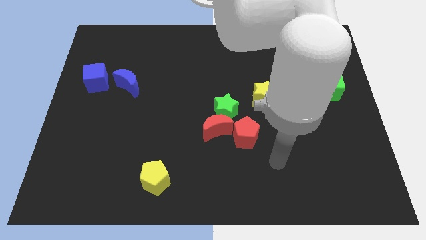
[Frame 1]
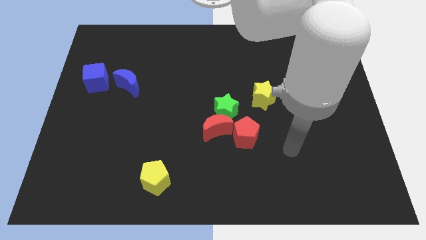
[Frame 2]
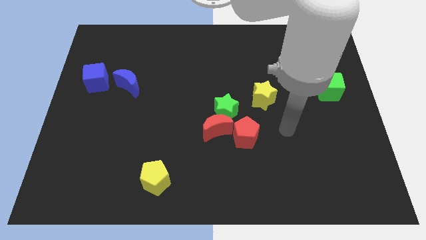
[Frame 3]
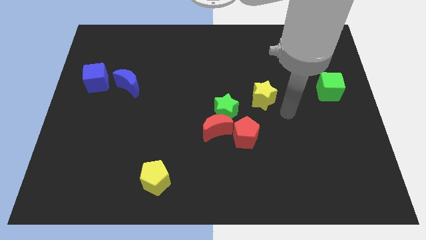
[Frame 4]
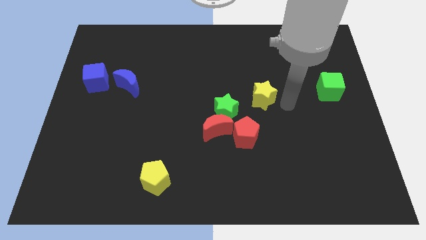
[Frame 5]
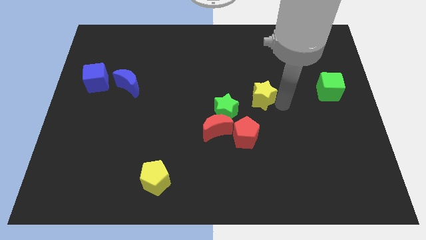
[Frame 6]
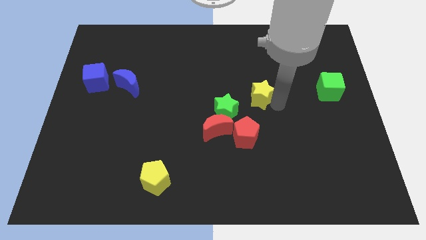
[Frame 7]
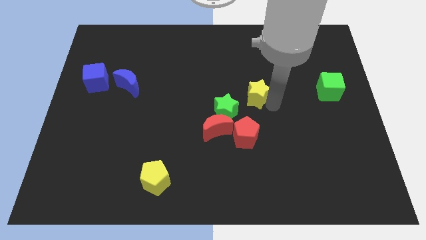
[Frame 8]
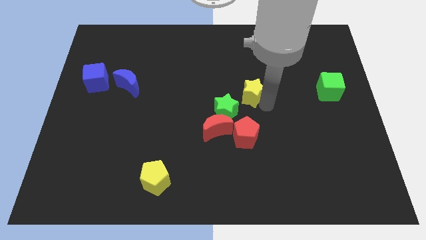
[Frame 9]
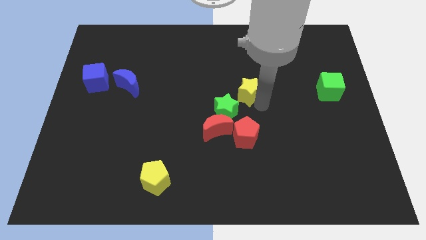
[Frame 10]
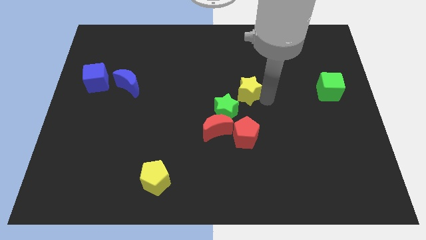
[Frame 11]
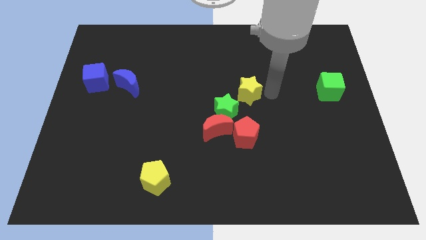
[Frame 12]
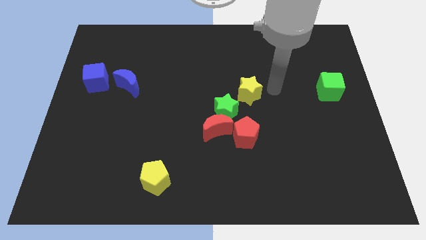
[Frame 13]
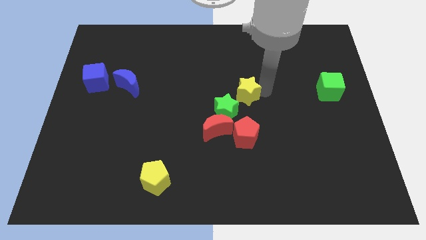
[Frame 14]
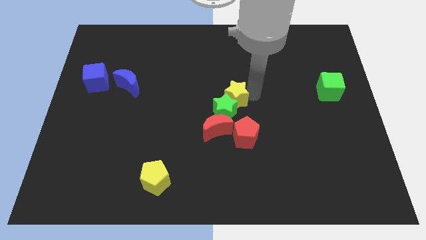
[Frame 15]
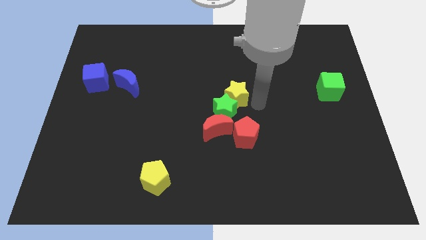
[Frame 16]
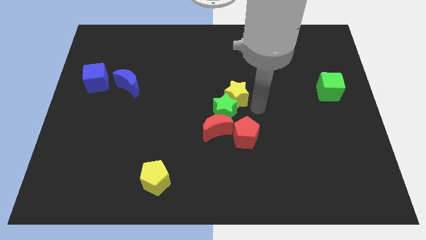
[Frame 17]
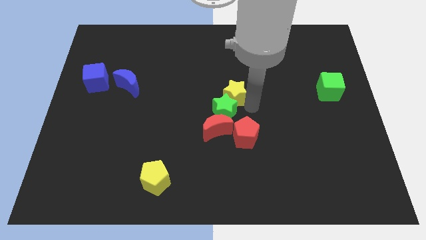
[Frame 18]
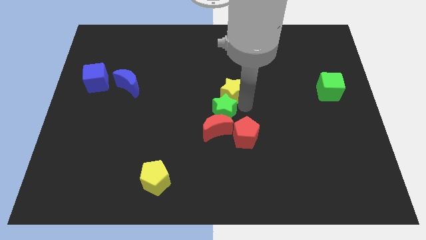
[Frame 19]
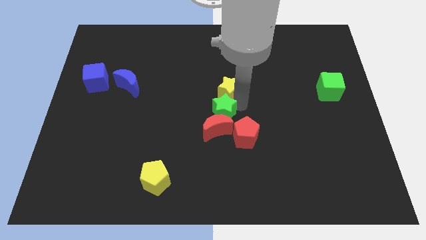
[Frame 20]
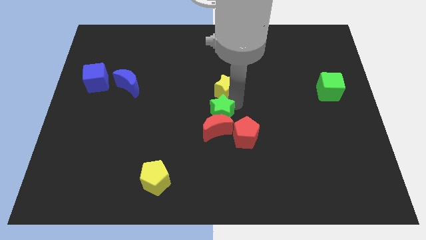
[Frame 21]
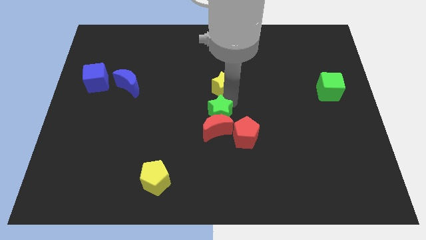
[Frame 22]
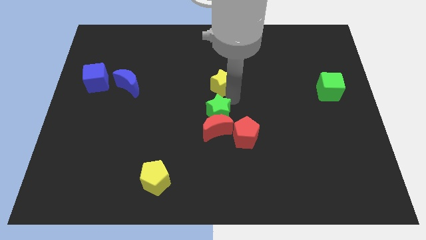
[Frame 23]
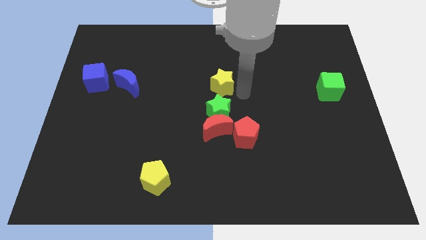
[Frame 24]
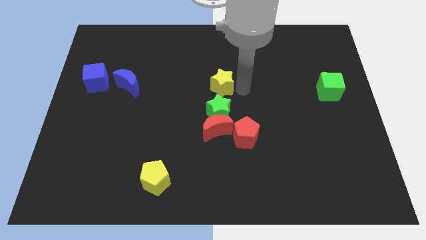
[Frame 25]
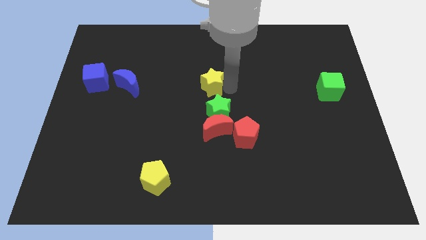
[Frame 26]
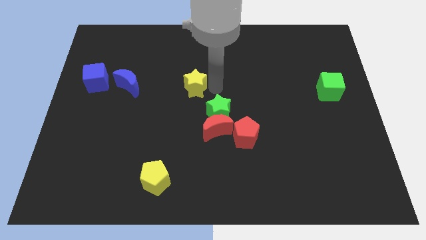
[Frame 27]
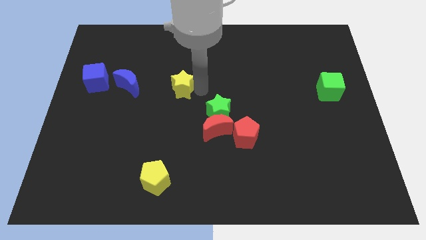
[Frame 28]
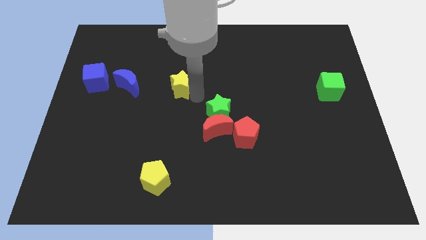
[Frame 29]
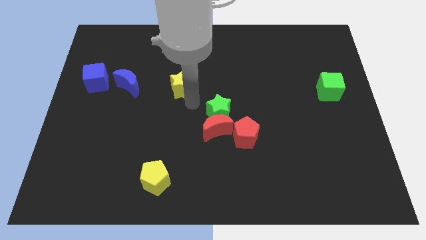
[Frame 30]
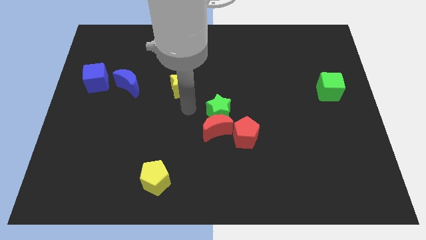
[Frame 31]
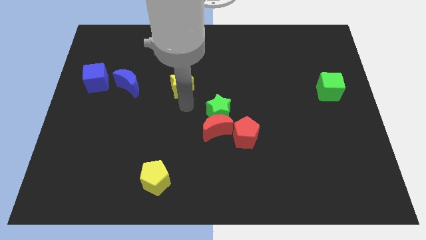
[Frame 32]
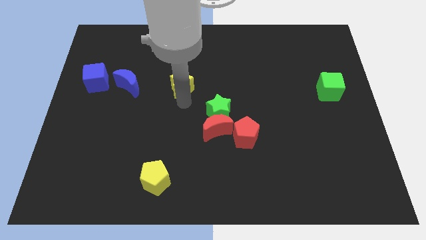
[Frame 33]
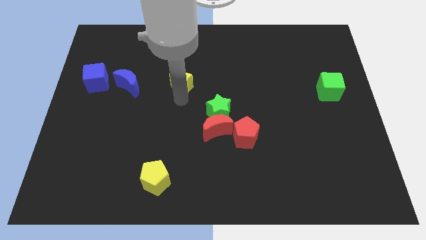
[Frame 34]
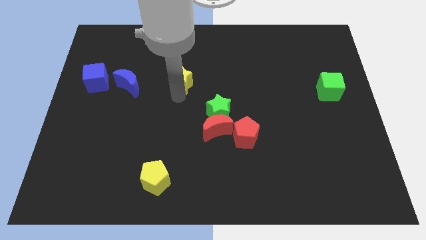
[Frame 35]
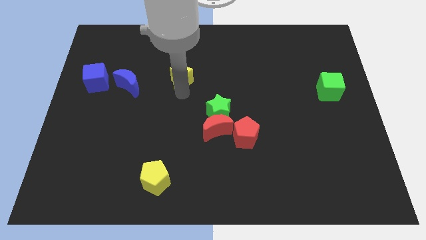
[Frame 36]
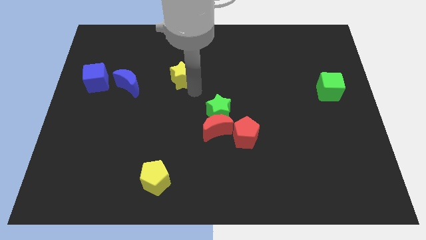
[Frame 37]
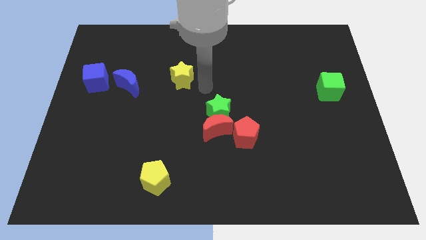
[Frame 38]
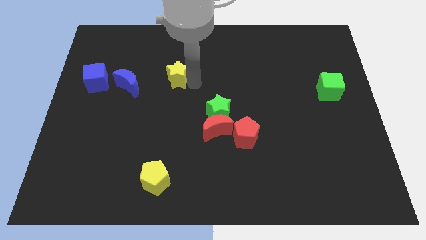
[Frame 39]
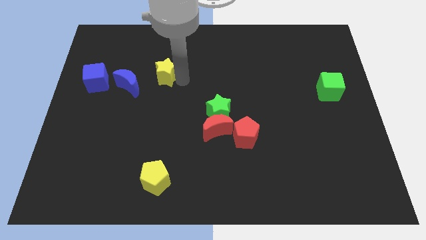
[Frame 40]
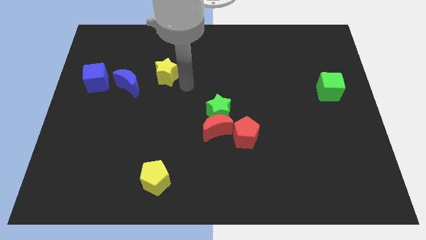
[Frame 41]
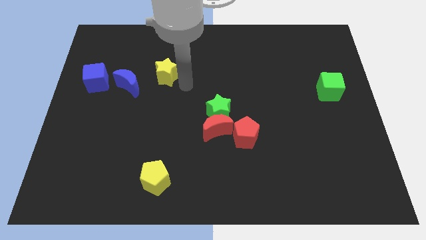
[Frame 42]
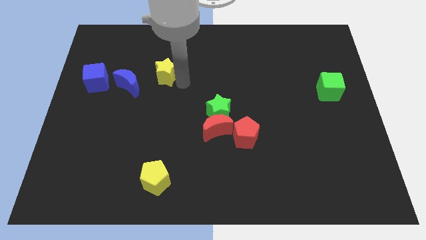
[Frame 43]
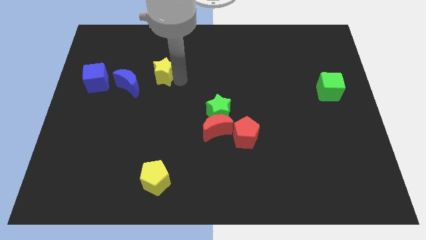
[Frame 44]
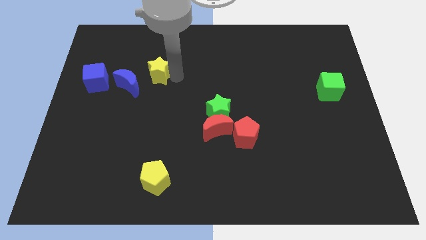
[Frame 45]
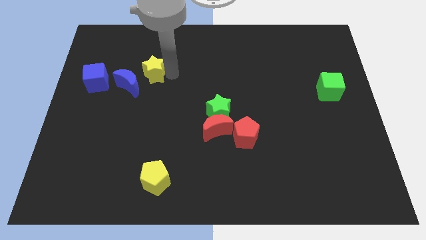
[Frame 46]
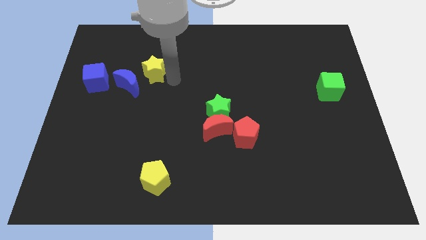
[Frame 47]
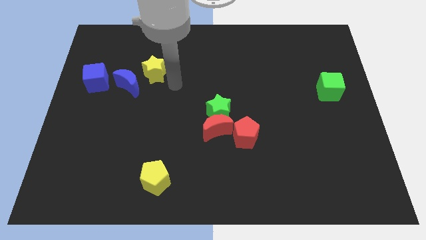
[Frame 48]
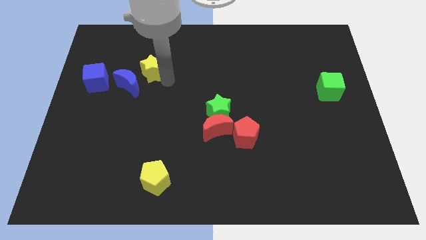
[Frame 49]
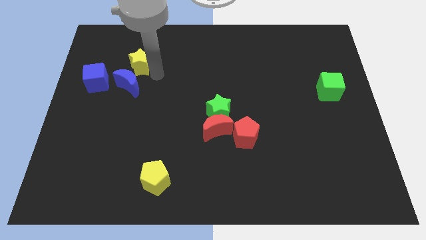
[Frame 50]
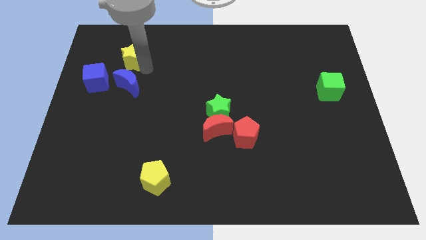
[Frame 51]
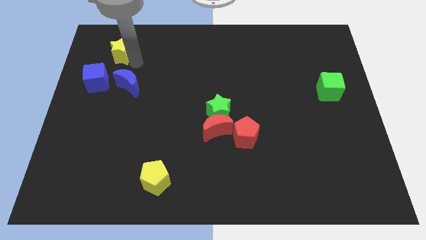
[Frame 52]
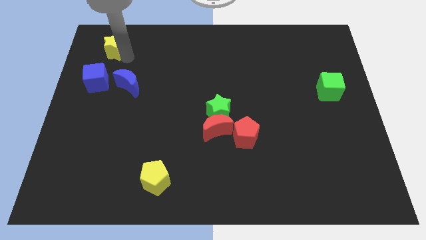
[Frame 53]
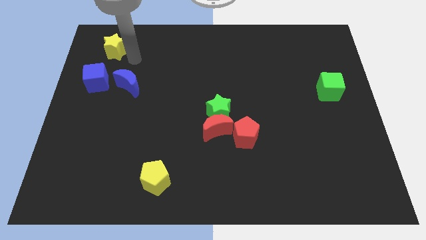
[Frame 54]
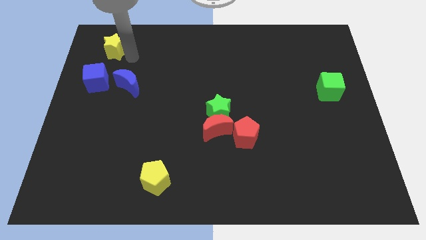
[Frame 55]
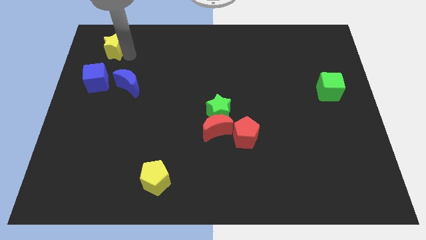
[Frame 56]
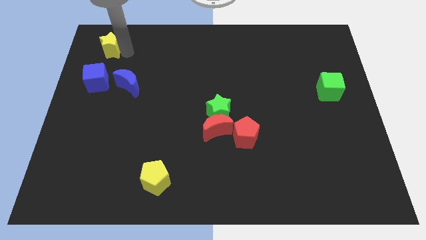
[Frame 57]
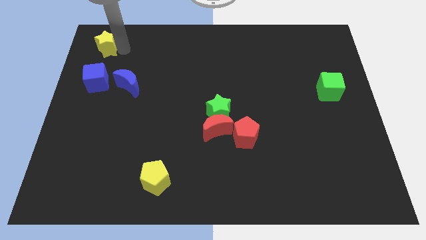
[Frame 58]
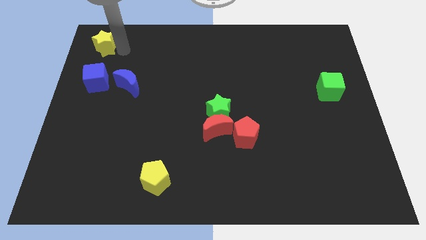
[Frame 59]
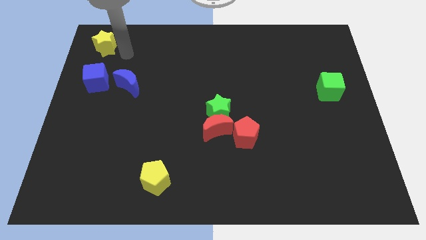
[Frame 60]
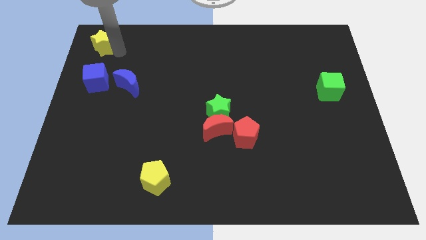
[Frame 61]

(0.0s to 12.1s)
put the yellow star to the upper left corner

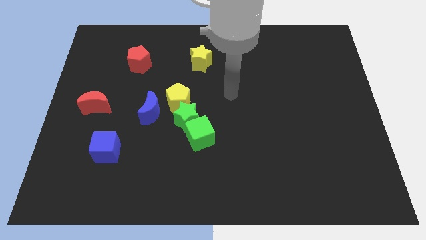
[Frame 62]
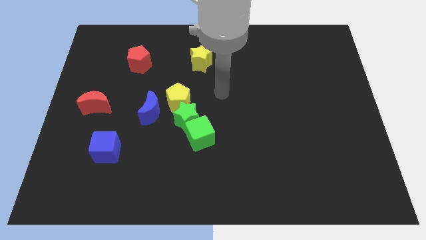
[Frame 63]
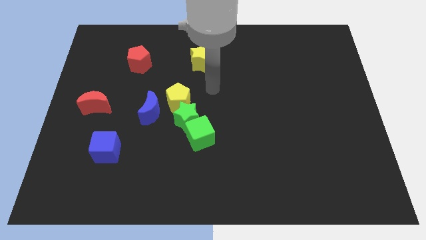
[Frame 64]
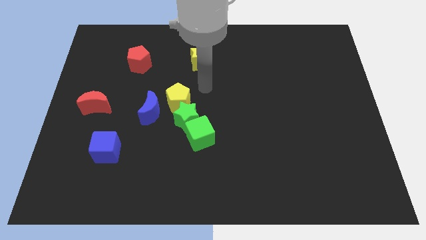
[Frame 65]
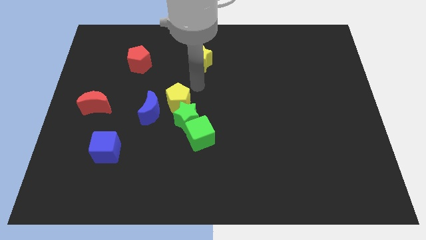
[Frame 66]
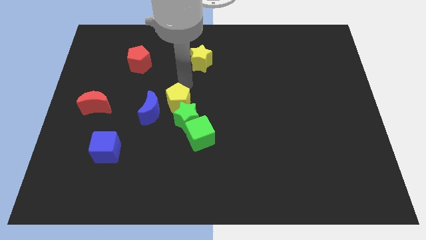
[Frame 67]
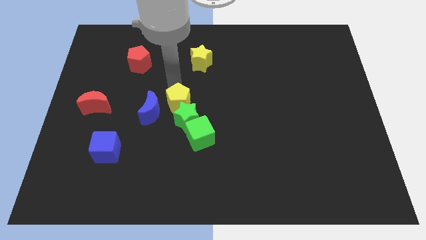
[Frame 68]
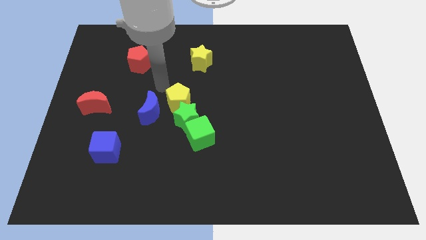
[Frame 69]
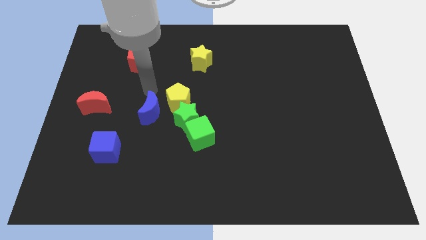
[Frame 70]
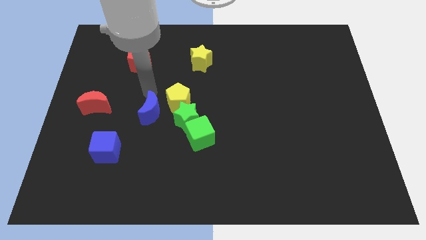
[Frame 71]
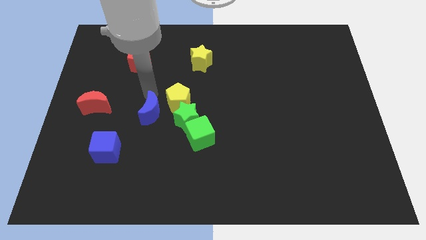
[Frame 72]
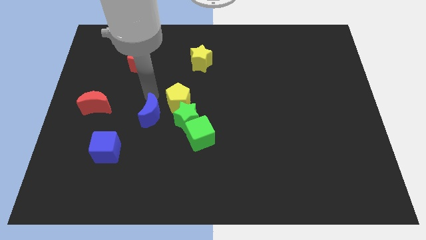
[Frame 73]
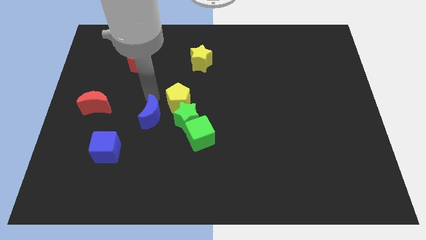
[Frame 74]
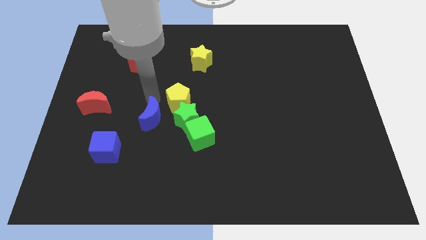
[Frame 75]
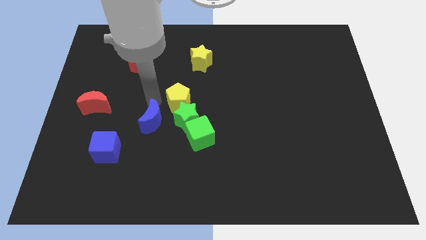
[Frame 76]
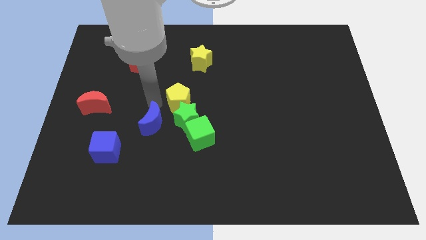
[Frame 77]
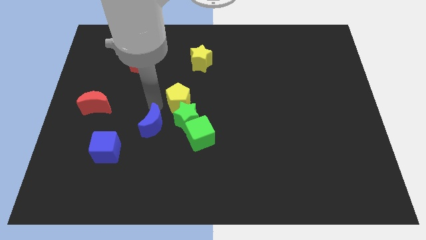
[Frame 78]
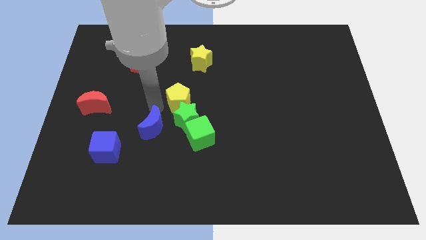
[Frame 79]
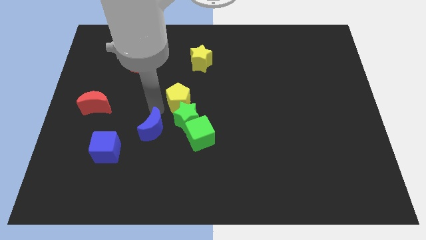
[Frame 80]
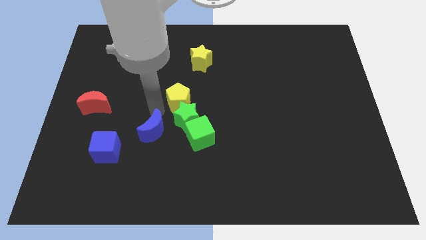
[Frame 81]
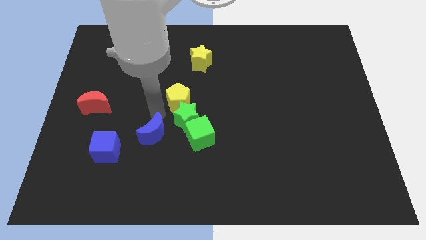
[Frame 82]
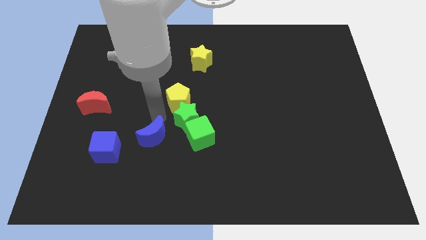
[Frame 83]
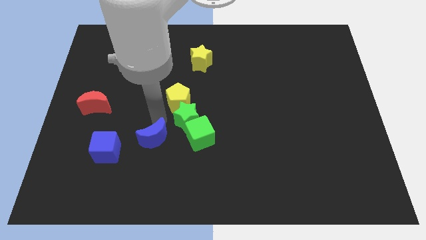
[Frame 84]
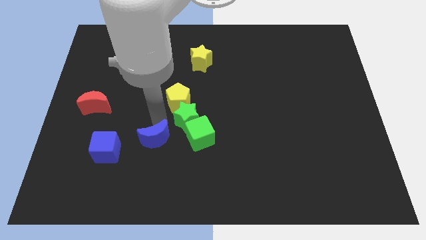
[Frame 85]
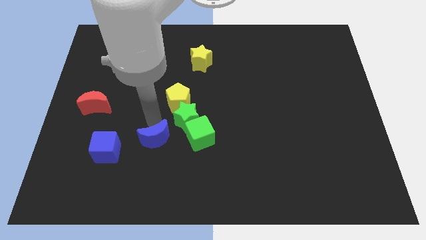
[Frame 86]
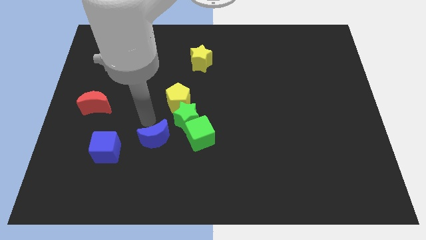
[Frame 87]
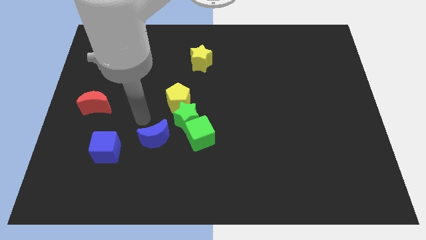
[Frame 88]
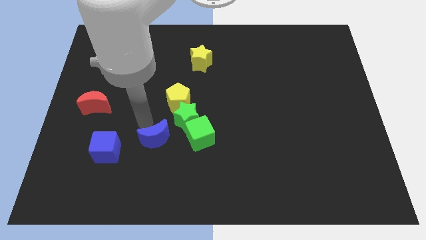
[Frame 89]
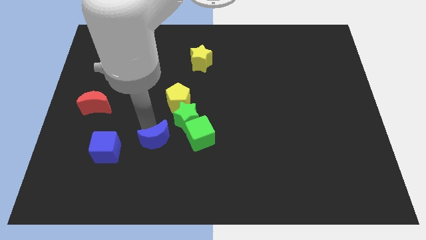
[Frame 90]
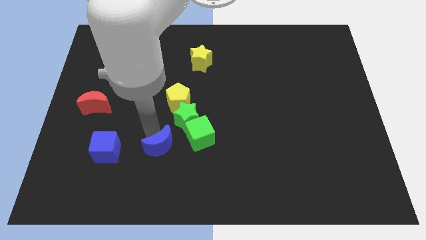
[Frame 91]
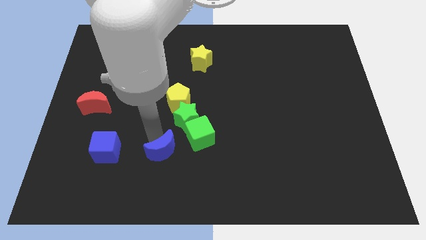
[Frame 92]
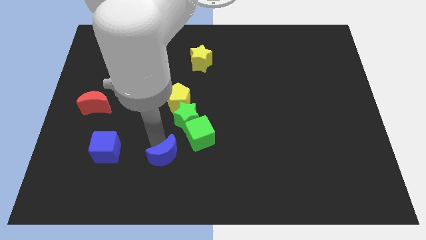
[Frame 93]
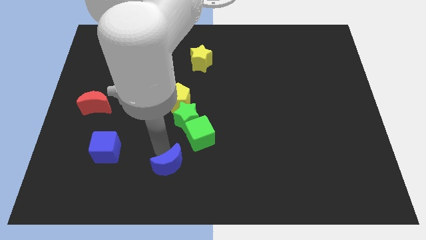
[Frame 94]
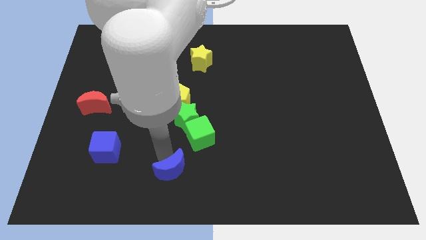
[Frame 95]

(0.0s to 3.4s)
slide the blue moon to the bottom
